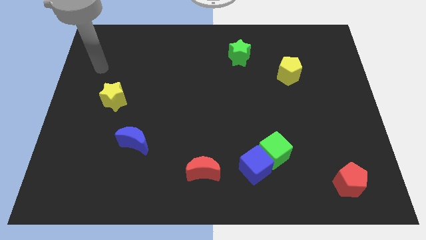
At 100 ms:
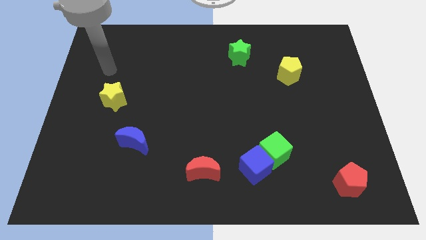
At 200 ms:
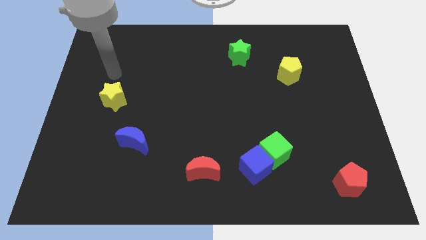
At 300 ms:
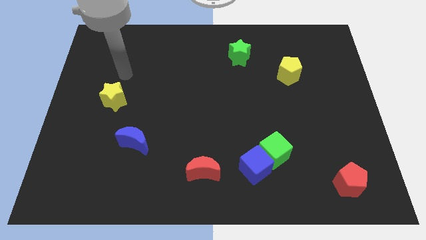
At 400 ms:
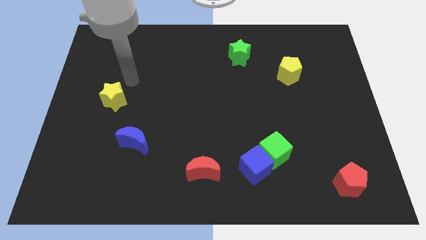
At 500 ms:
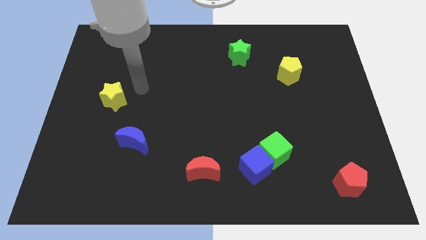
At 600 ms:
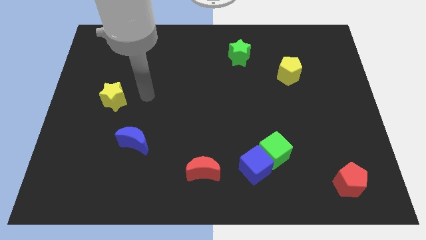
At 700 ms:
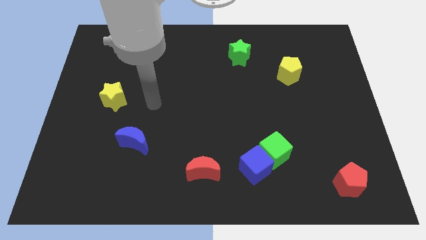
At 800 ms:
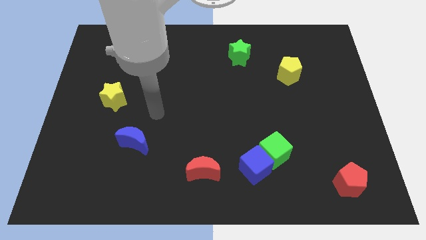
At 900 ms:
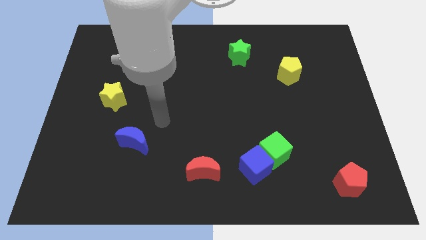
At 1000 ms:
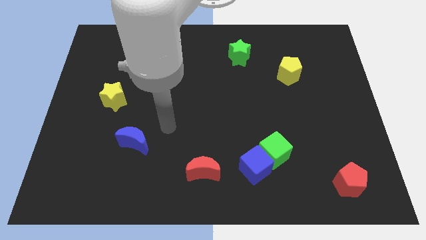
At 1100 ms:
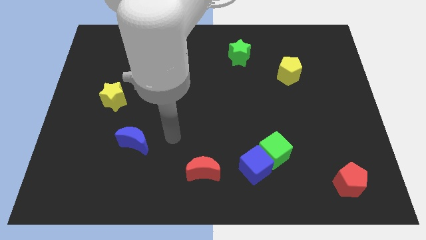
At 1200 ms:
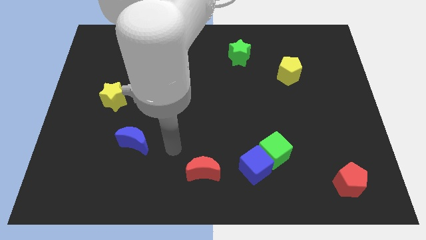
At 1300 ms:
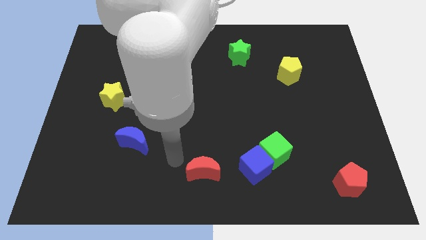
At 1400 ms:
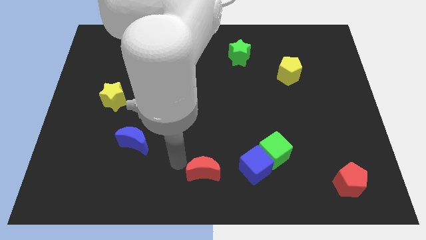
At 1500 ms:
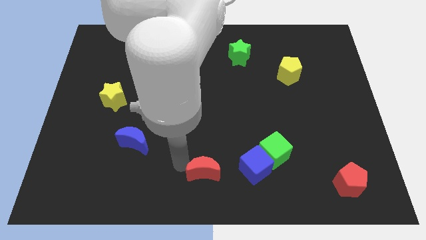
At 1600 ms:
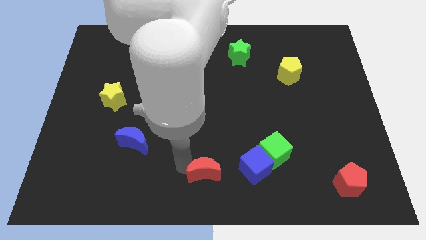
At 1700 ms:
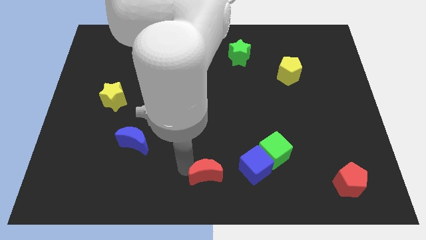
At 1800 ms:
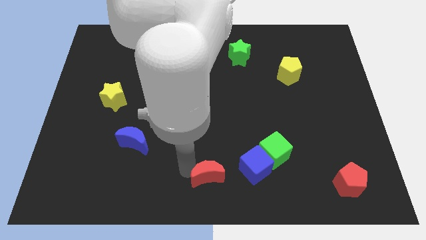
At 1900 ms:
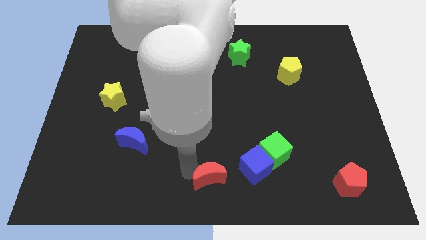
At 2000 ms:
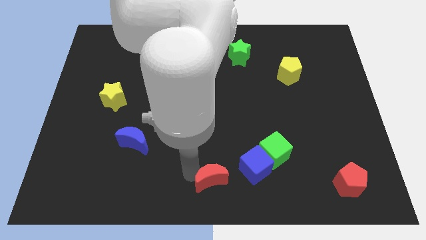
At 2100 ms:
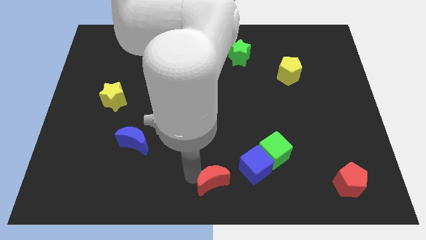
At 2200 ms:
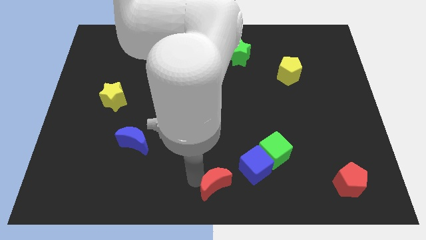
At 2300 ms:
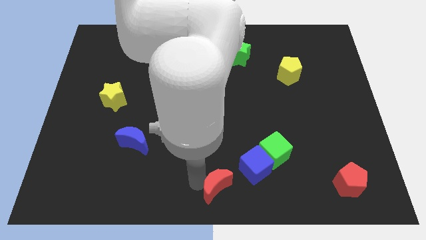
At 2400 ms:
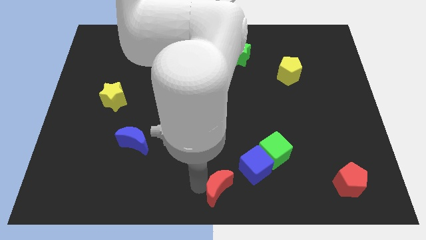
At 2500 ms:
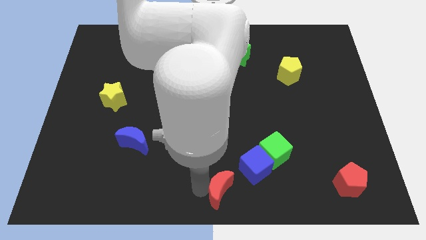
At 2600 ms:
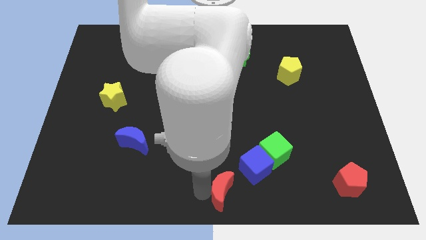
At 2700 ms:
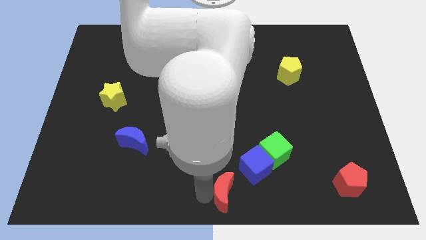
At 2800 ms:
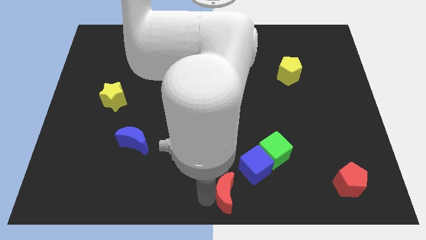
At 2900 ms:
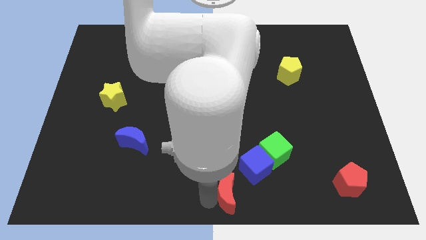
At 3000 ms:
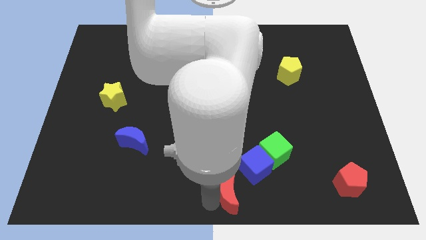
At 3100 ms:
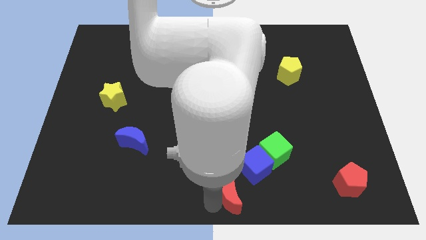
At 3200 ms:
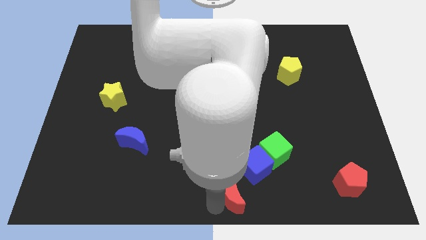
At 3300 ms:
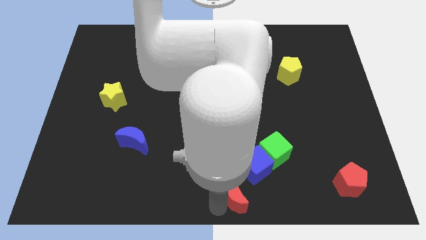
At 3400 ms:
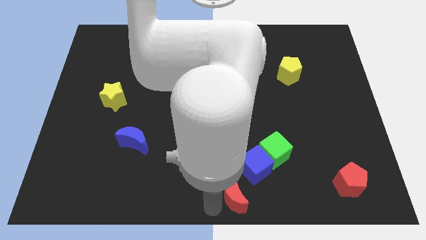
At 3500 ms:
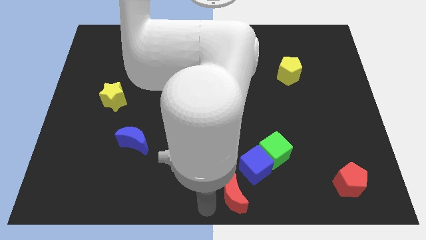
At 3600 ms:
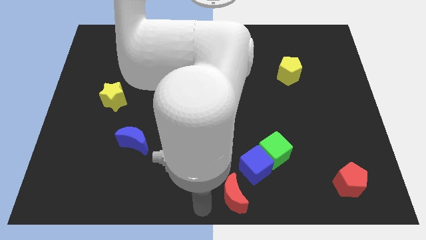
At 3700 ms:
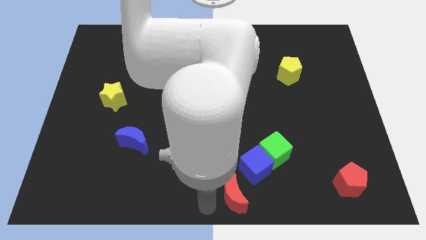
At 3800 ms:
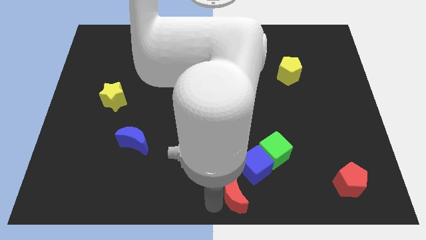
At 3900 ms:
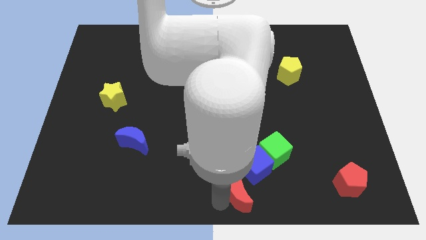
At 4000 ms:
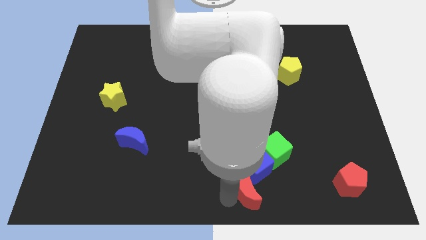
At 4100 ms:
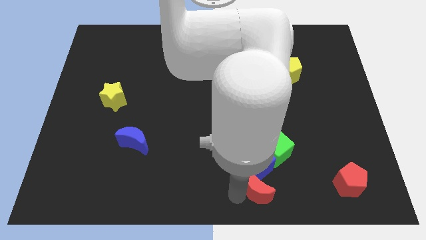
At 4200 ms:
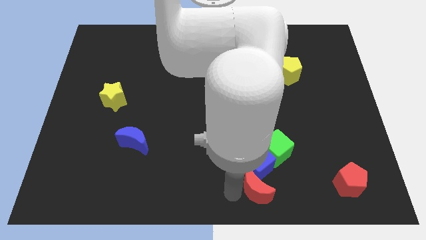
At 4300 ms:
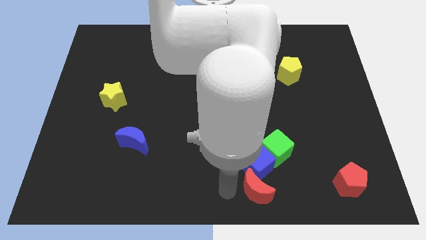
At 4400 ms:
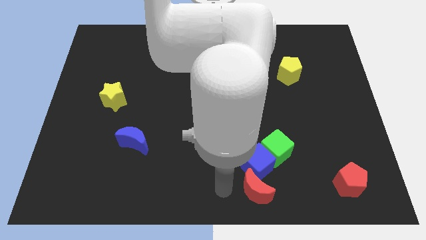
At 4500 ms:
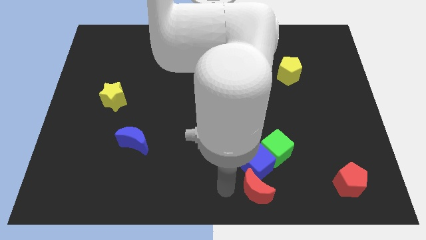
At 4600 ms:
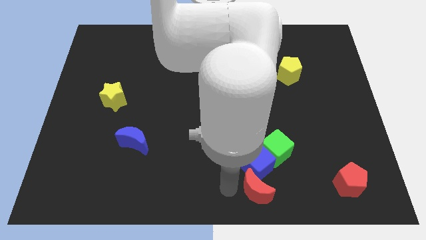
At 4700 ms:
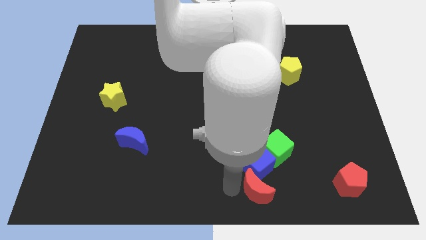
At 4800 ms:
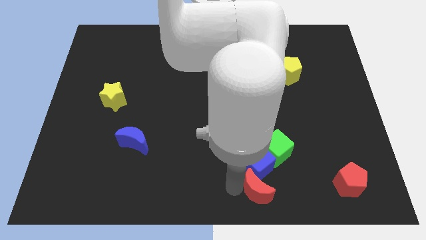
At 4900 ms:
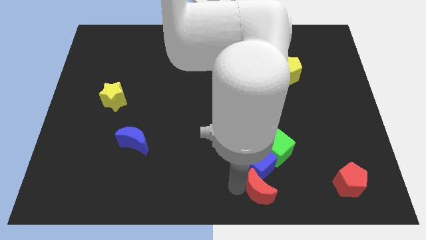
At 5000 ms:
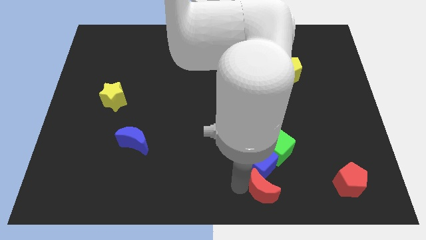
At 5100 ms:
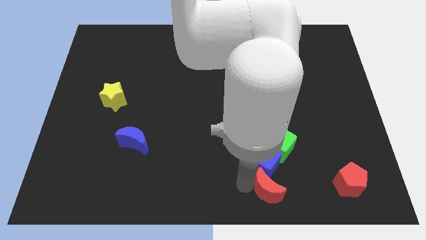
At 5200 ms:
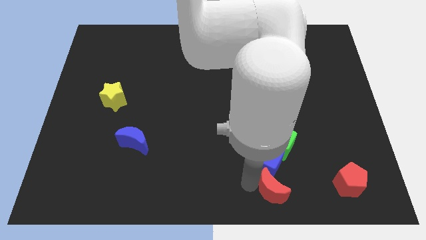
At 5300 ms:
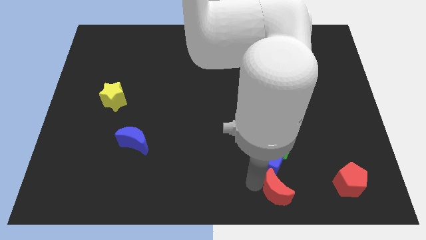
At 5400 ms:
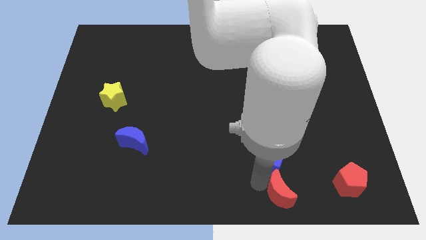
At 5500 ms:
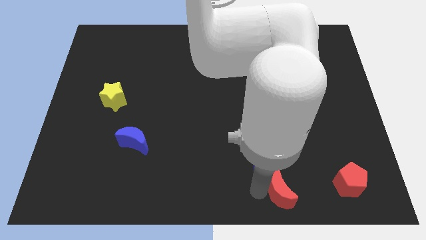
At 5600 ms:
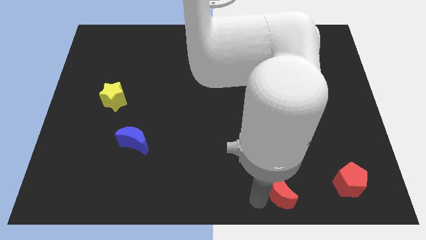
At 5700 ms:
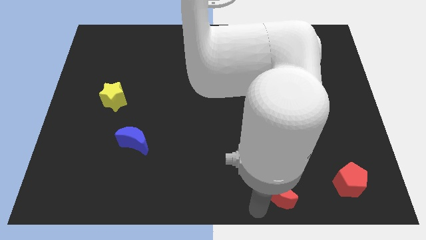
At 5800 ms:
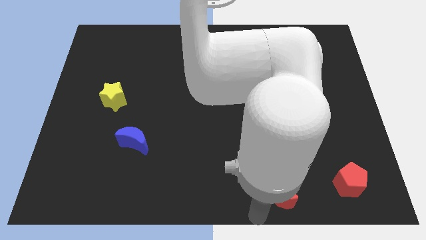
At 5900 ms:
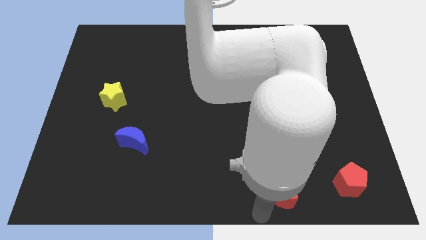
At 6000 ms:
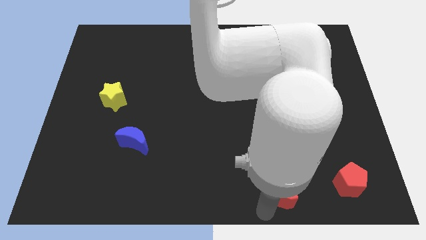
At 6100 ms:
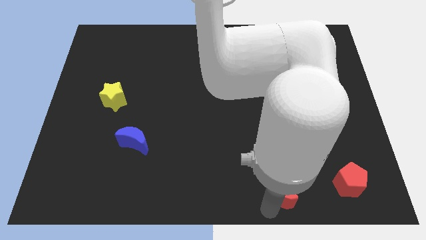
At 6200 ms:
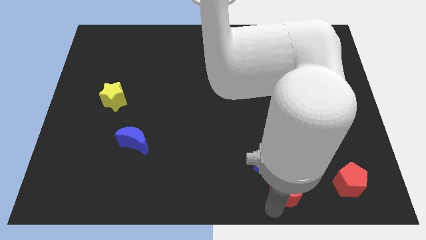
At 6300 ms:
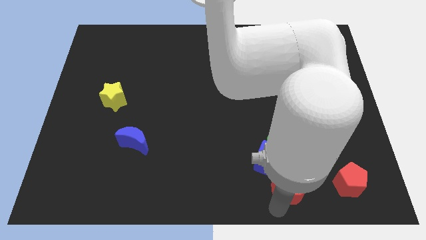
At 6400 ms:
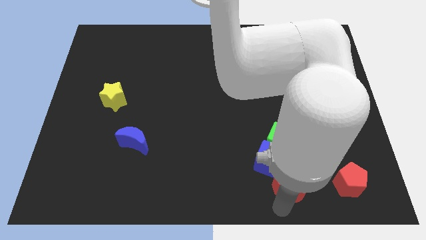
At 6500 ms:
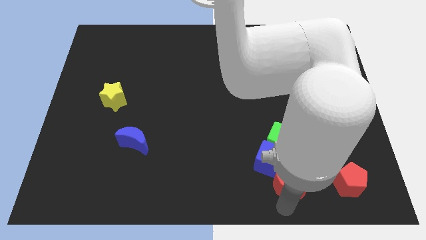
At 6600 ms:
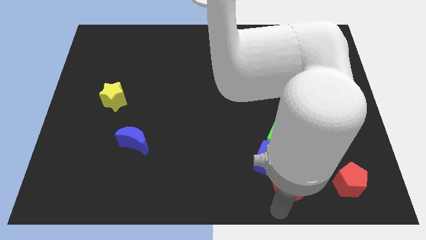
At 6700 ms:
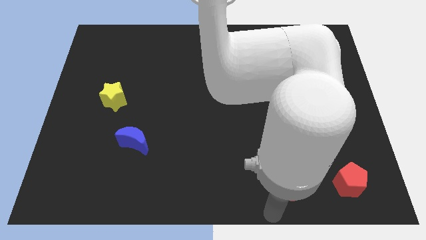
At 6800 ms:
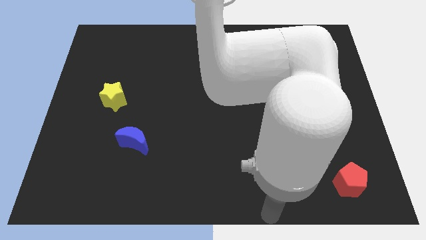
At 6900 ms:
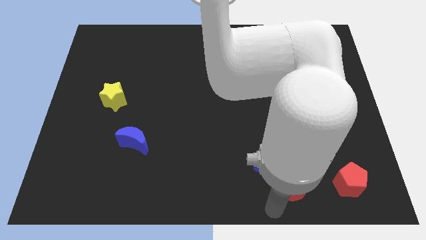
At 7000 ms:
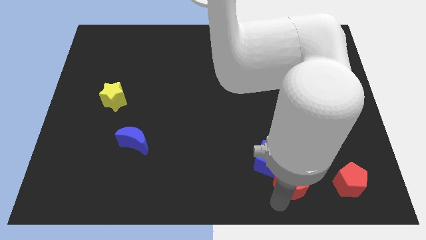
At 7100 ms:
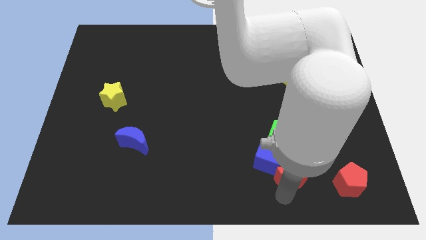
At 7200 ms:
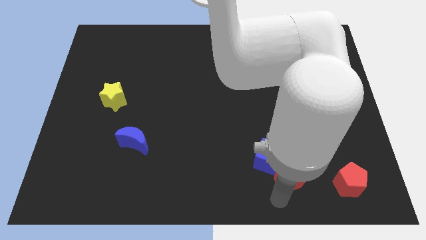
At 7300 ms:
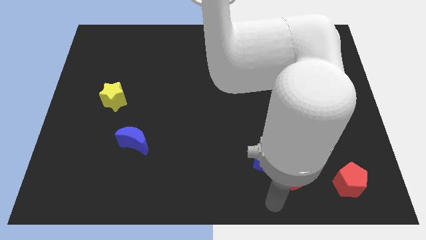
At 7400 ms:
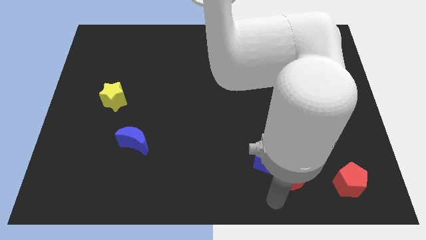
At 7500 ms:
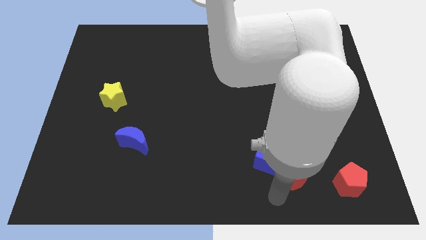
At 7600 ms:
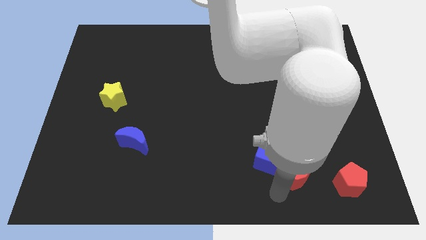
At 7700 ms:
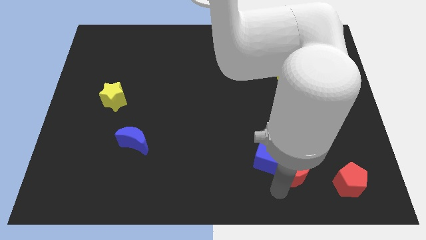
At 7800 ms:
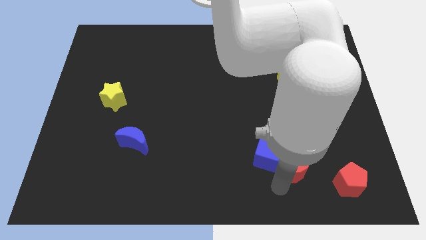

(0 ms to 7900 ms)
push the red moon to the bottom right side of the green cube
